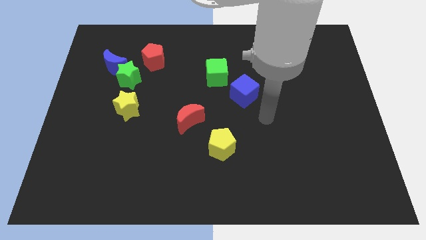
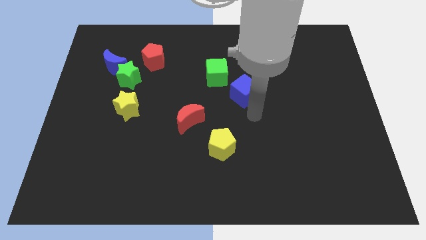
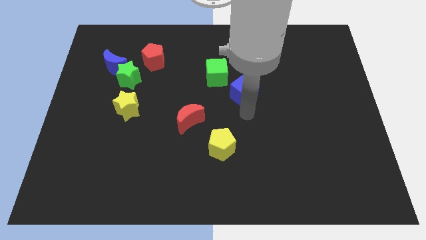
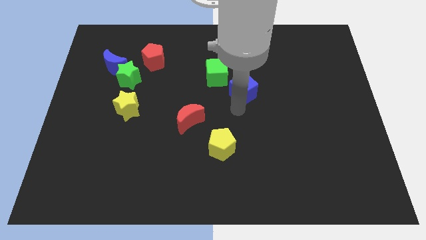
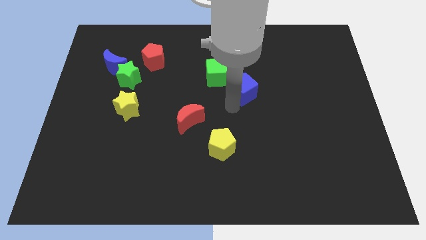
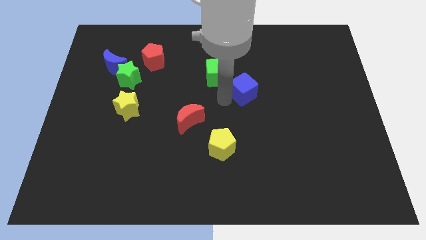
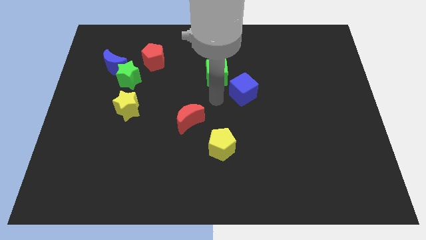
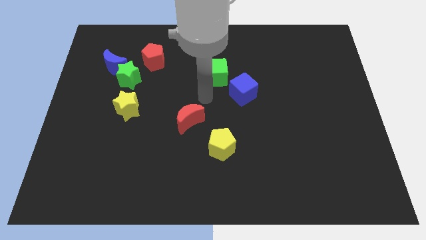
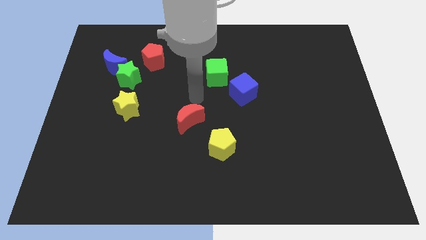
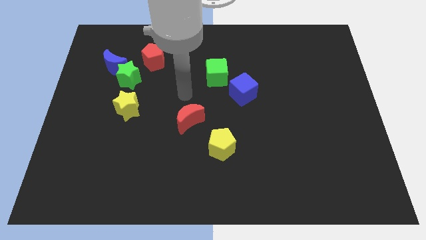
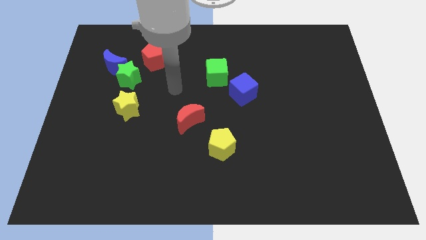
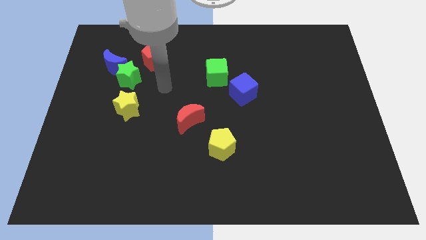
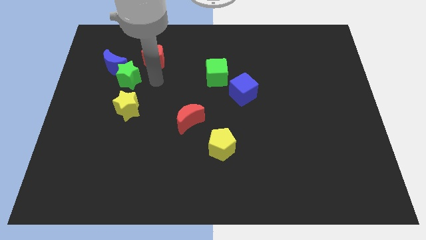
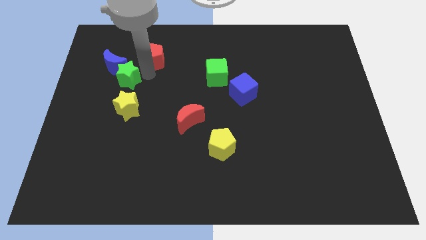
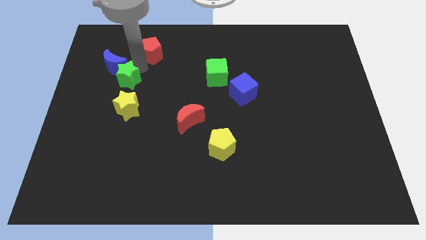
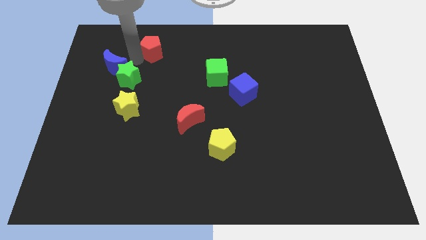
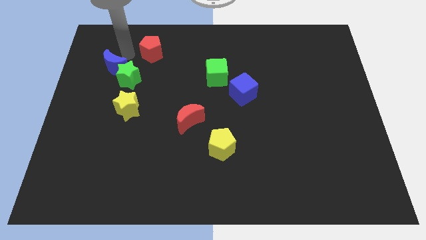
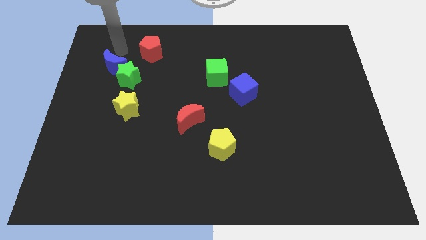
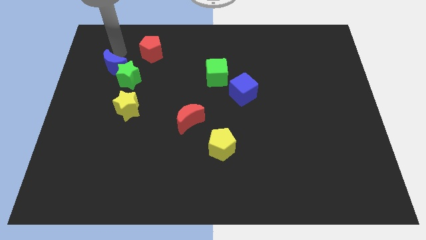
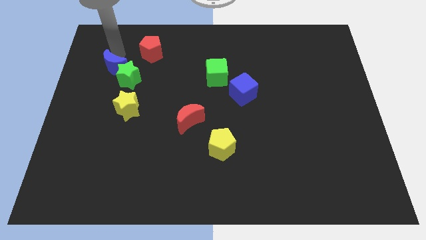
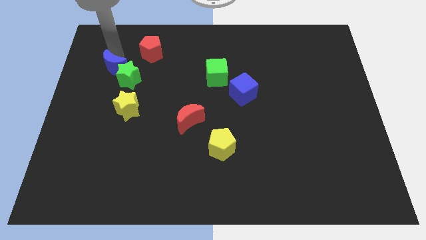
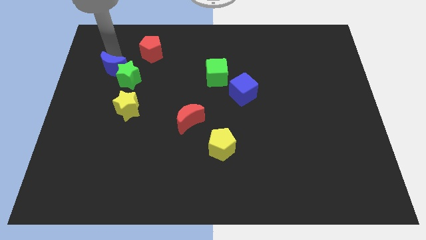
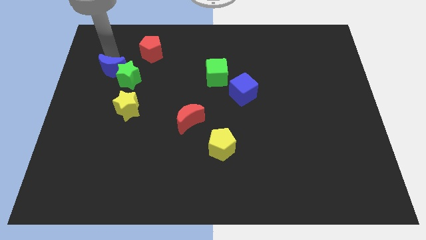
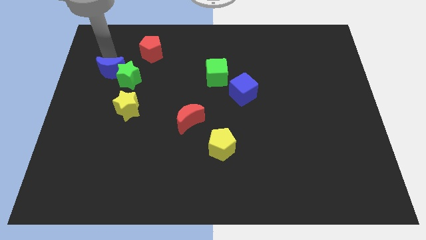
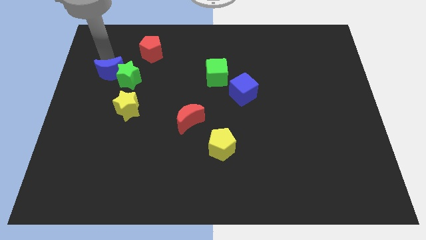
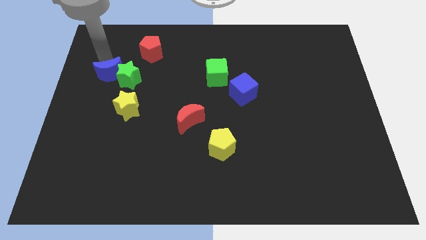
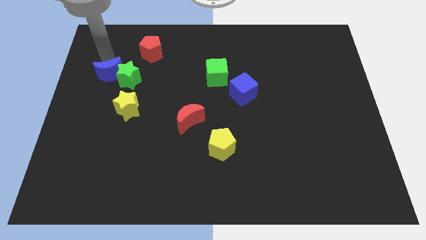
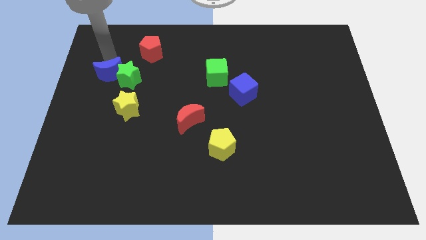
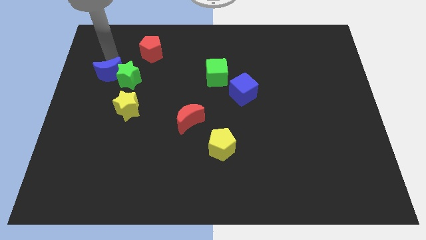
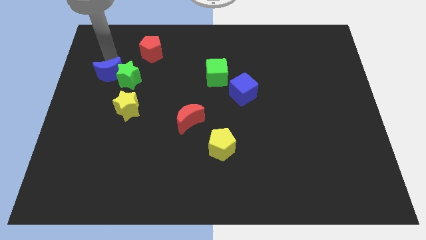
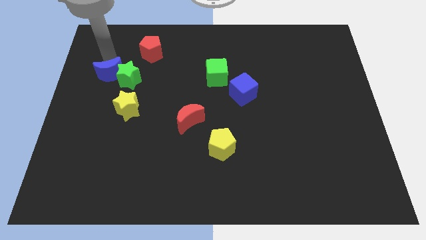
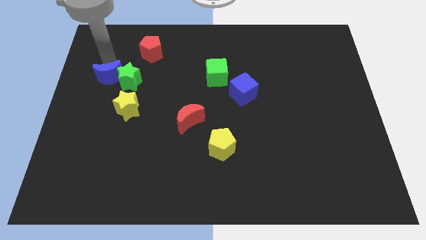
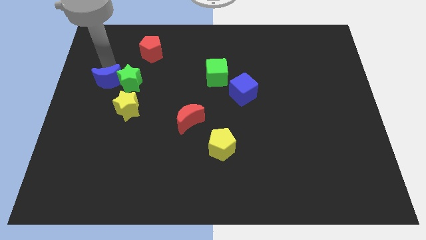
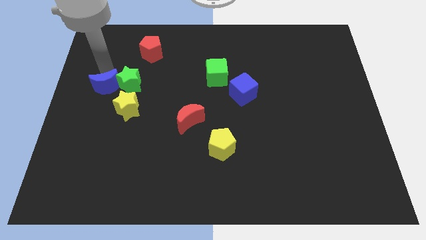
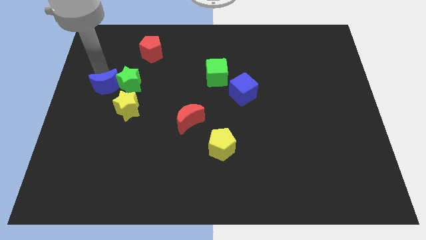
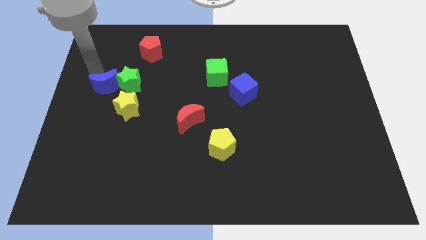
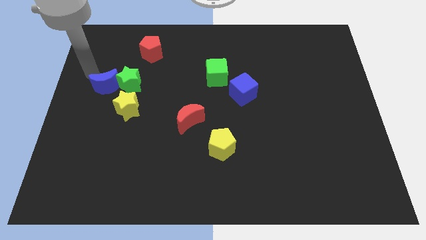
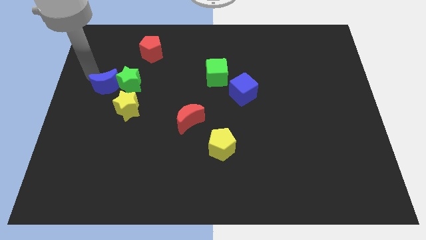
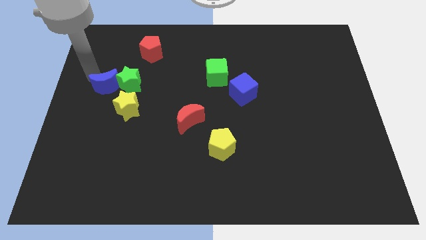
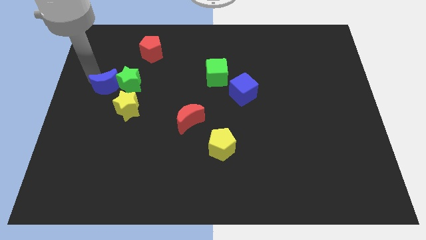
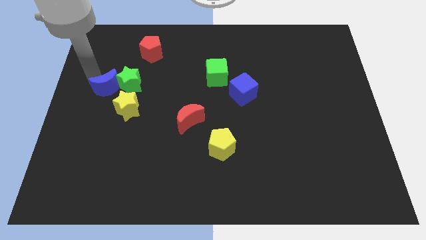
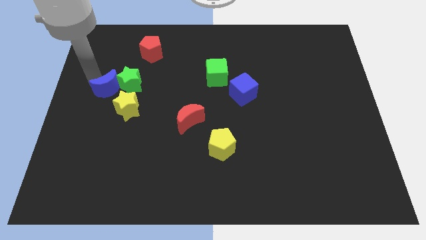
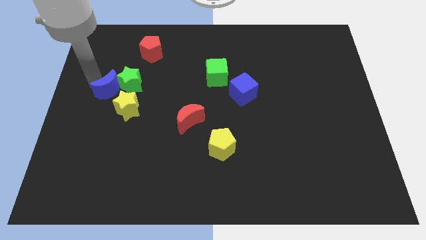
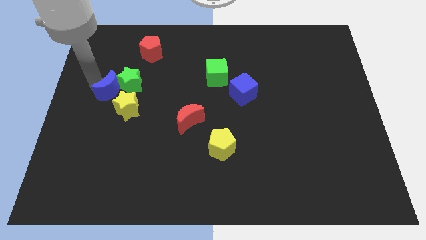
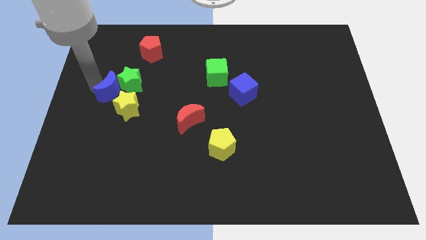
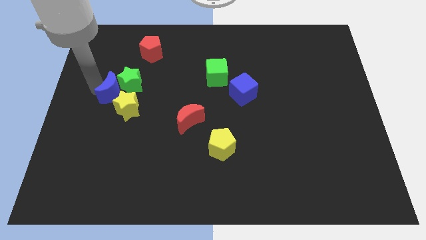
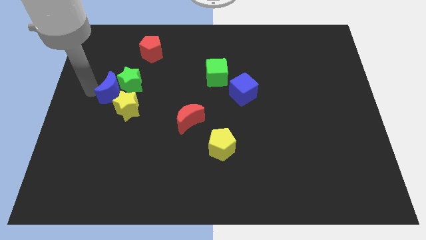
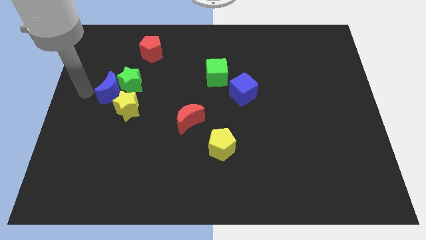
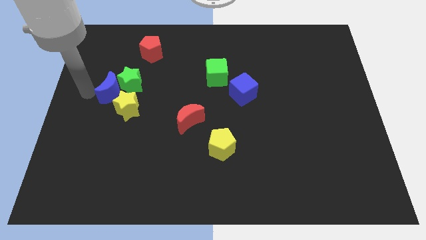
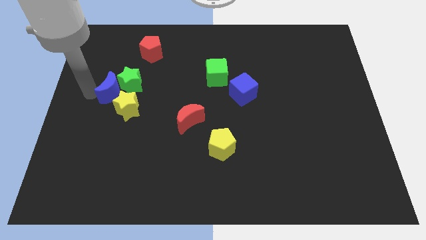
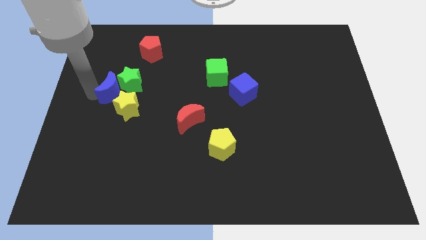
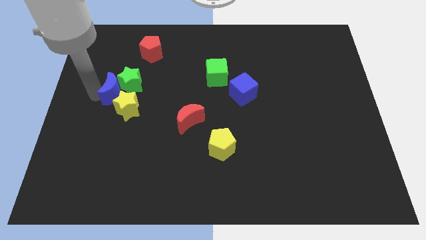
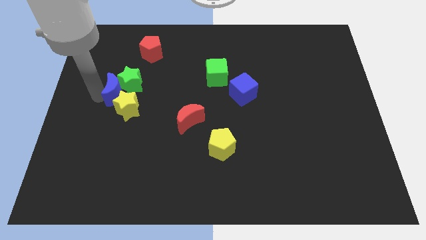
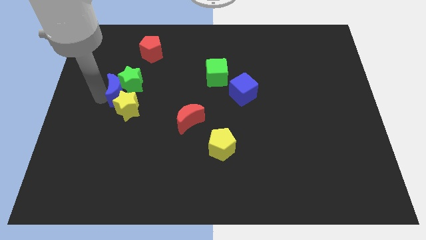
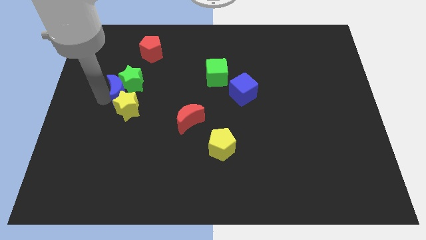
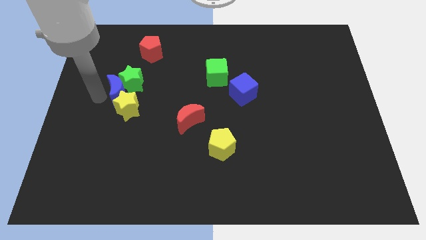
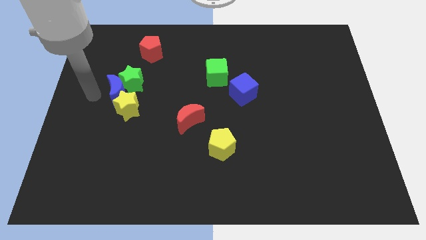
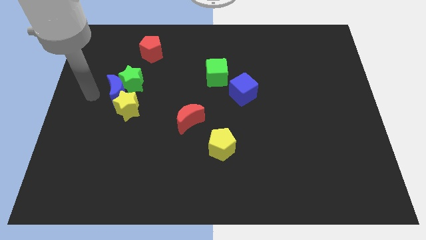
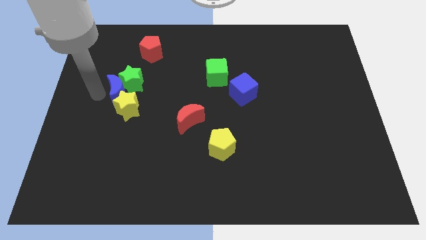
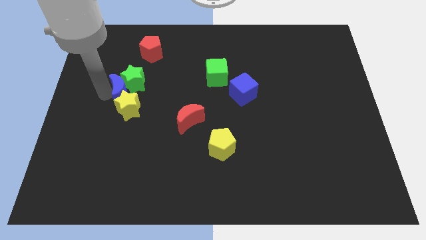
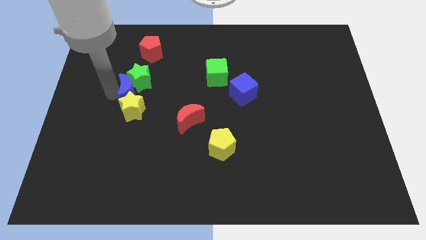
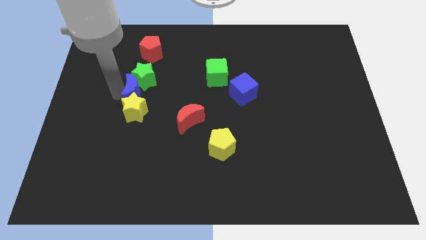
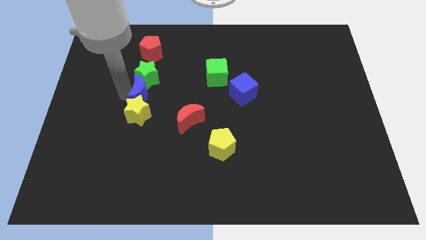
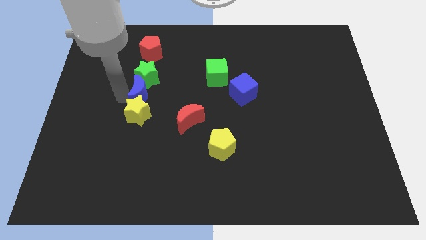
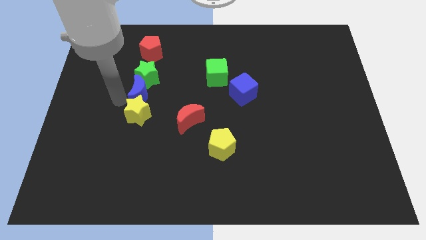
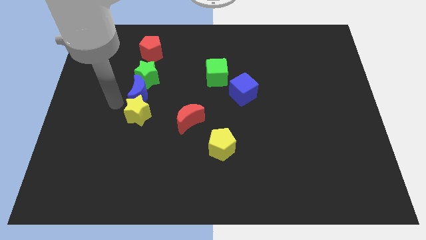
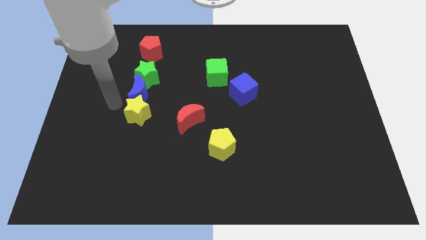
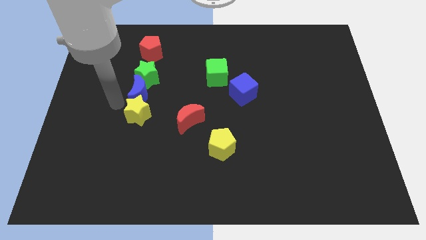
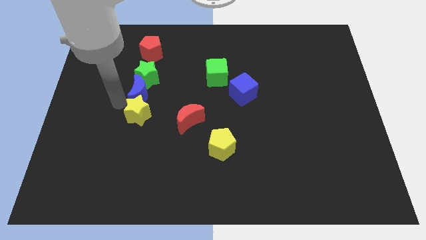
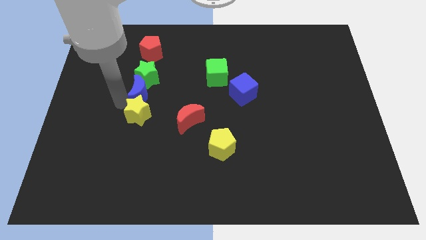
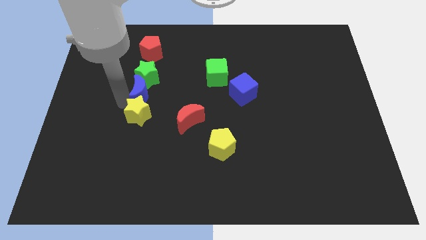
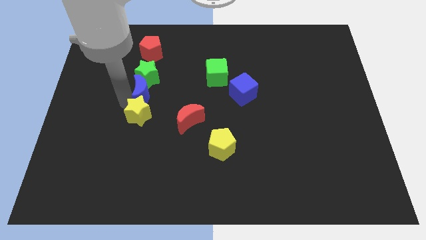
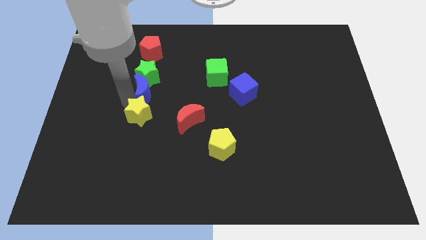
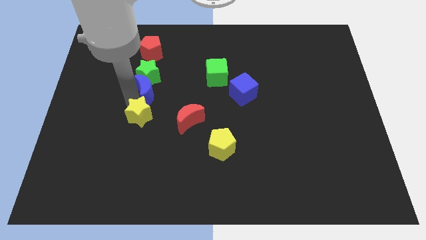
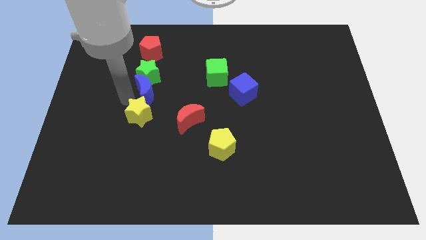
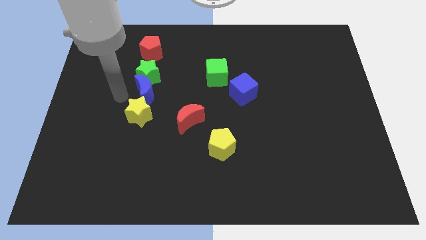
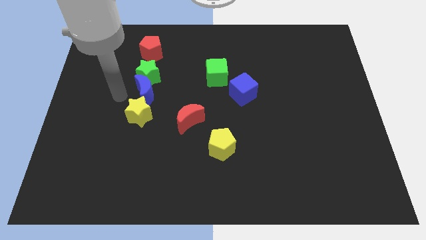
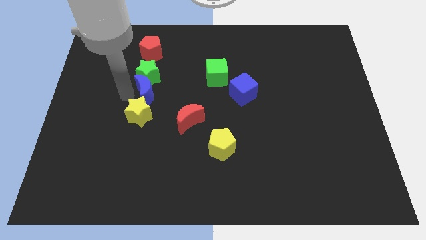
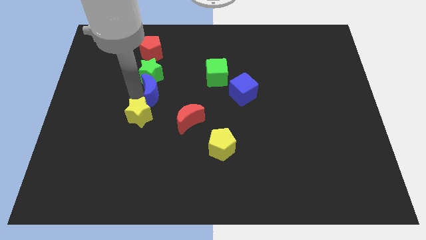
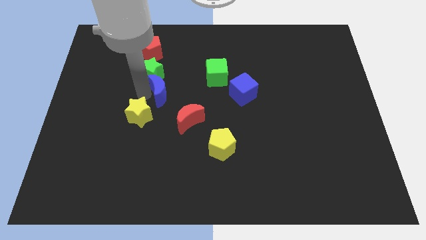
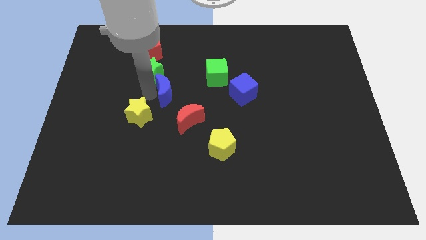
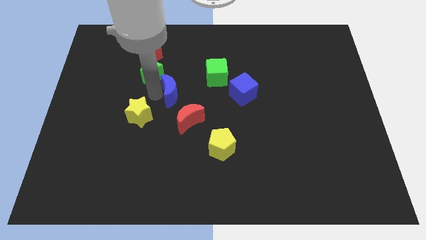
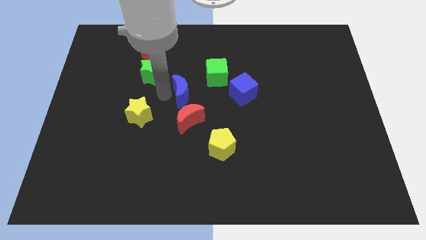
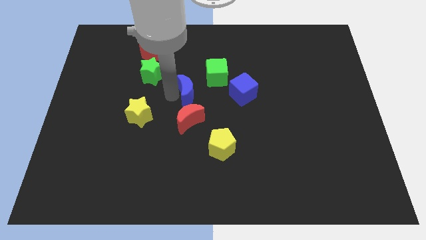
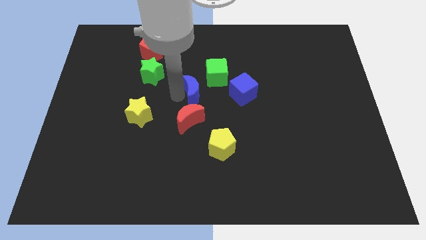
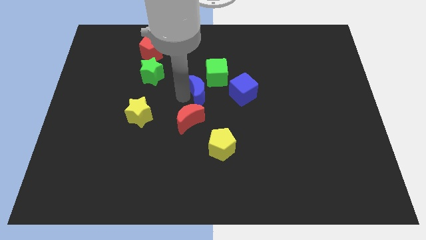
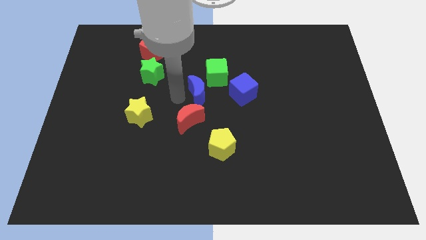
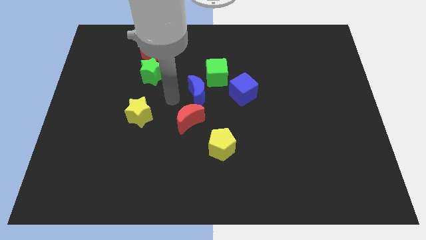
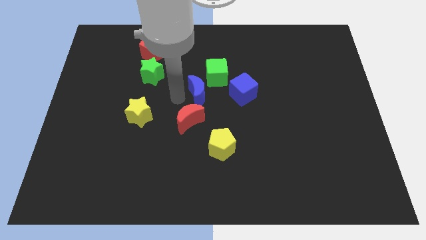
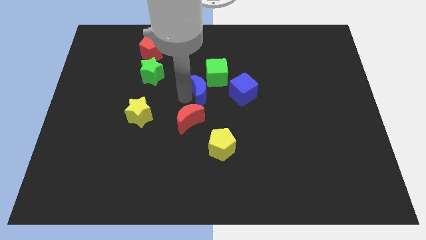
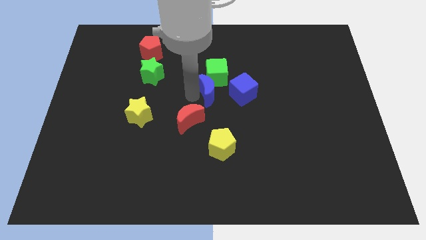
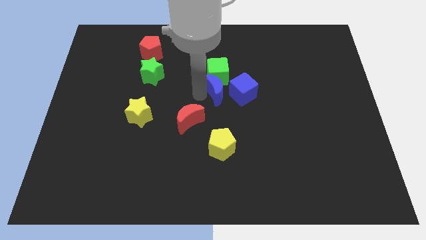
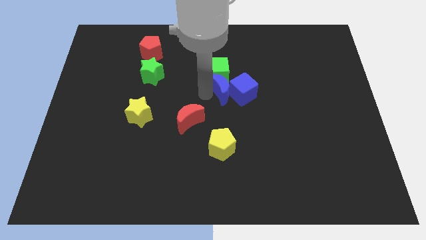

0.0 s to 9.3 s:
slide the blue moon to the blue cube
